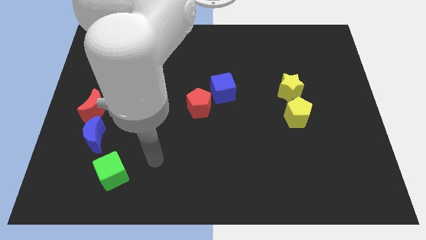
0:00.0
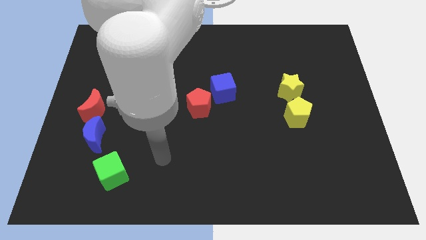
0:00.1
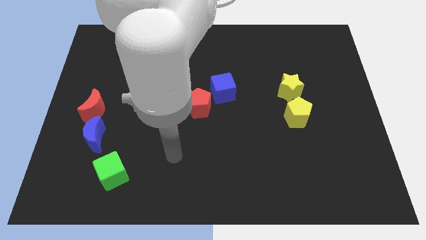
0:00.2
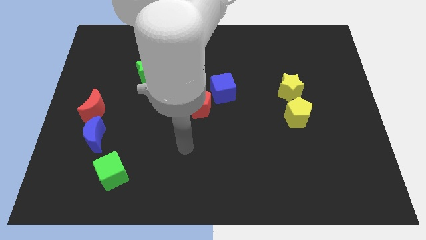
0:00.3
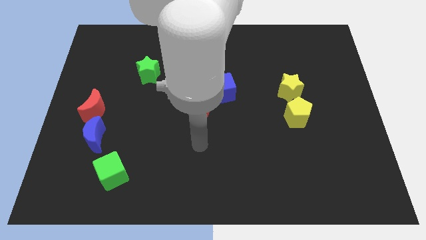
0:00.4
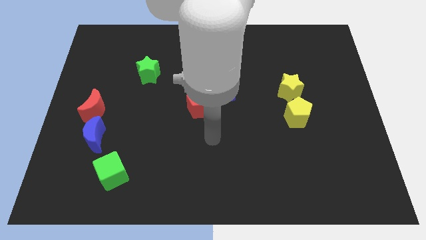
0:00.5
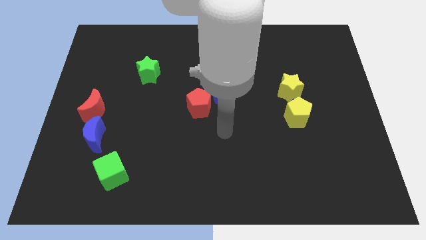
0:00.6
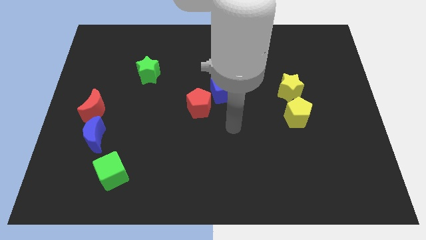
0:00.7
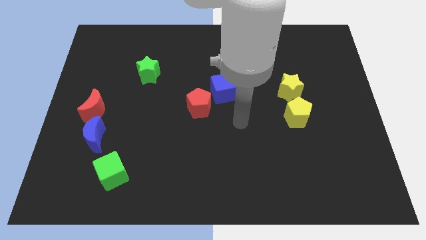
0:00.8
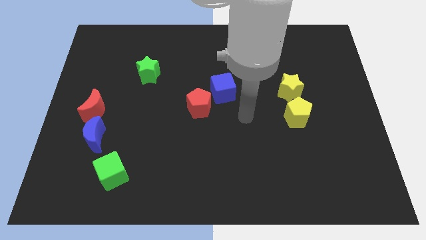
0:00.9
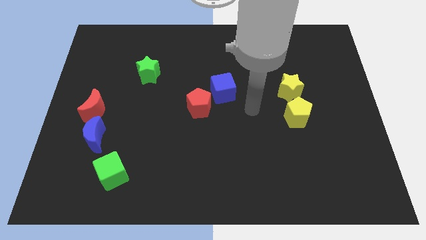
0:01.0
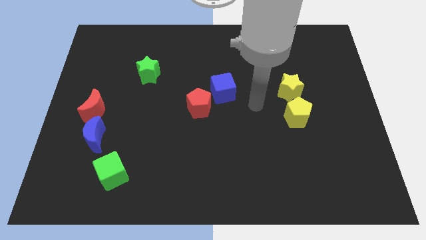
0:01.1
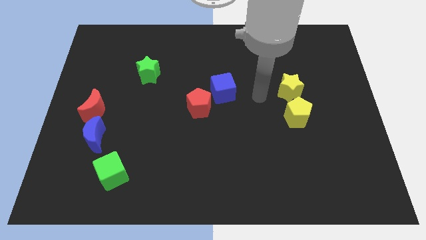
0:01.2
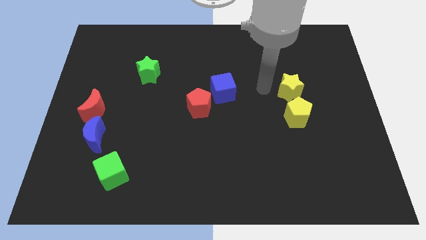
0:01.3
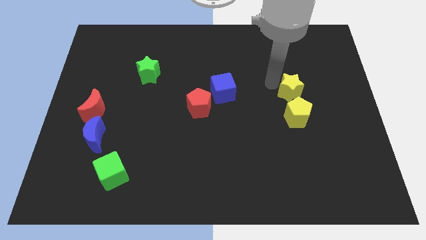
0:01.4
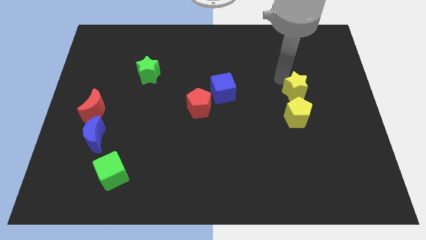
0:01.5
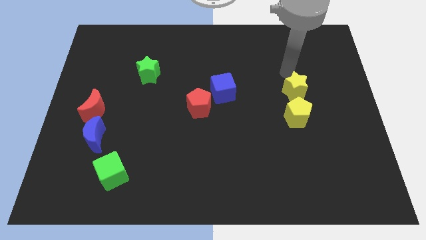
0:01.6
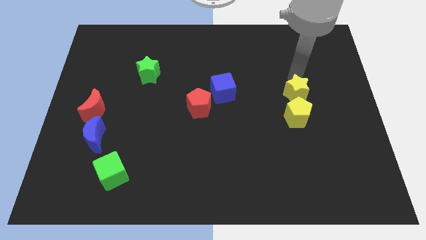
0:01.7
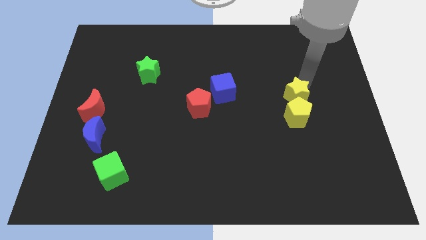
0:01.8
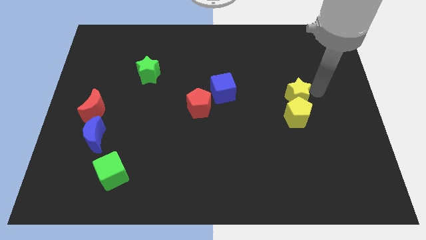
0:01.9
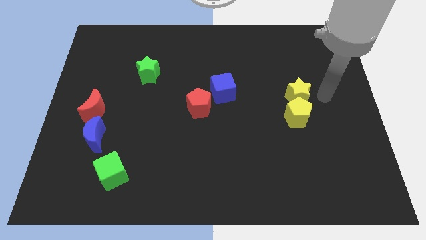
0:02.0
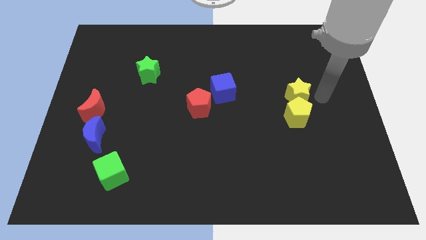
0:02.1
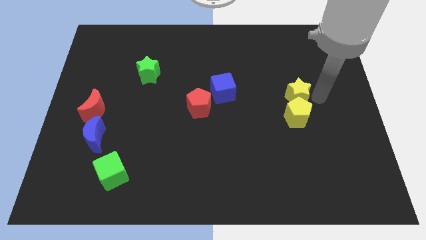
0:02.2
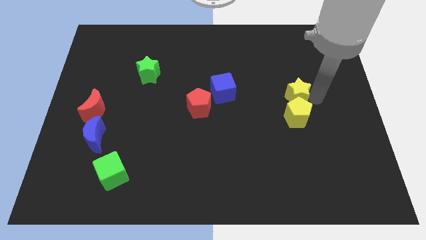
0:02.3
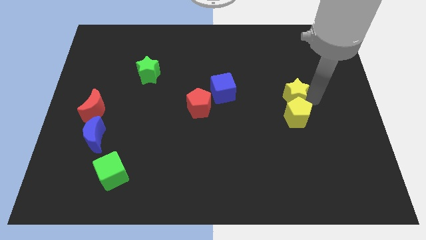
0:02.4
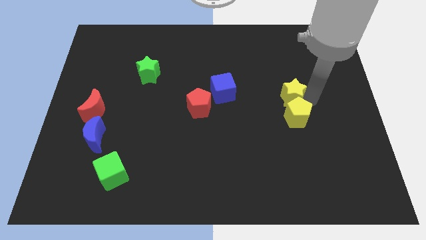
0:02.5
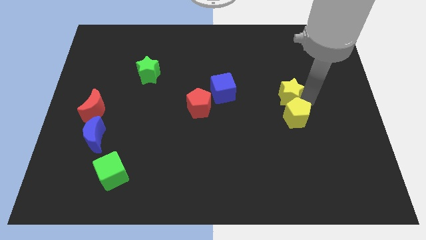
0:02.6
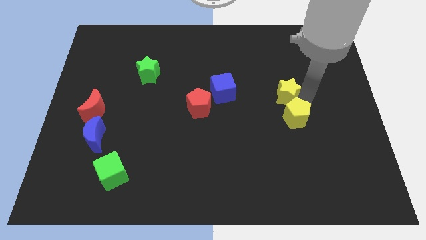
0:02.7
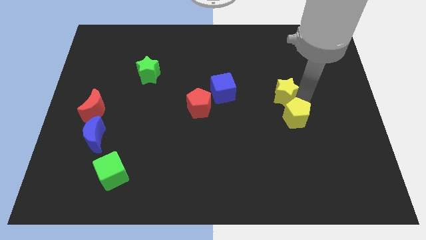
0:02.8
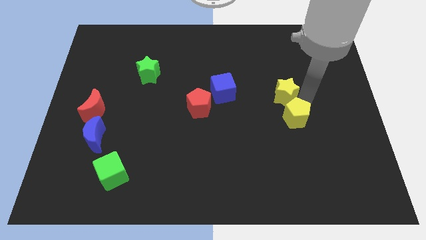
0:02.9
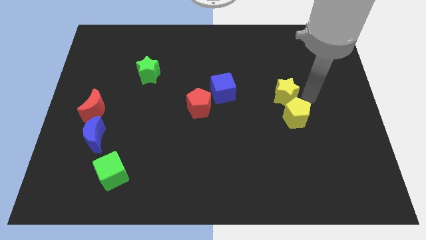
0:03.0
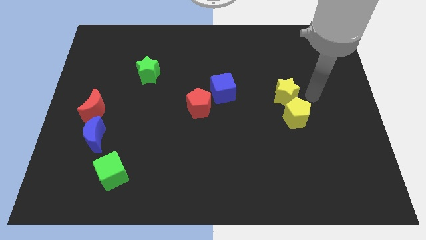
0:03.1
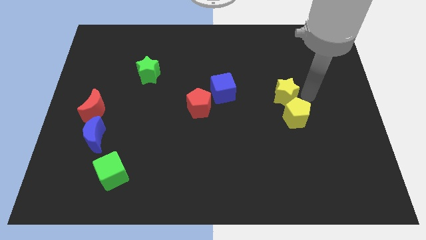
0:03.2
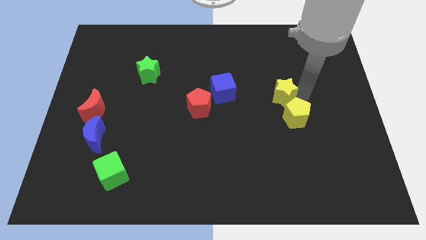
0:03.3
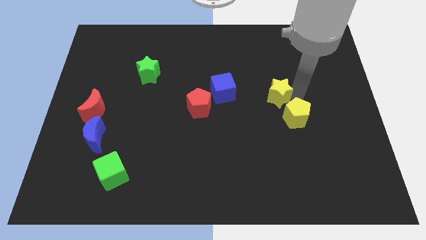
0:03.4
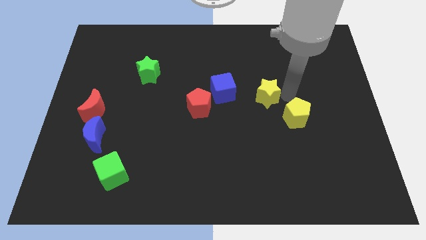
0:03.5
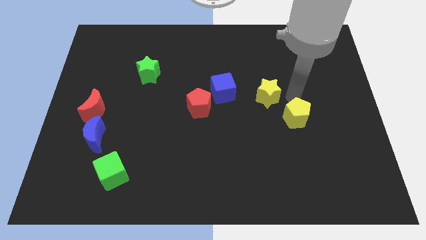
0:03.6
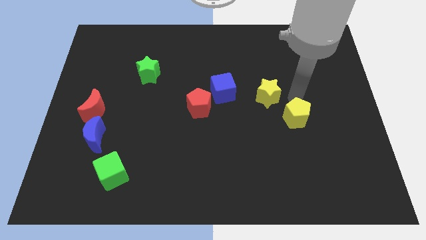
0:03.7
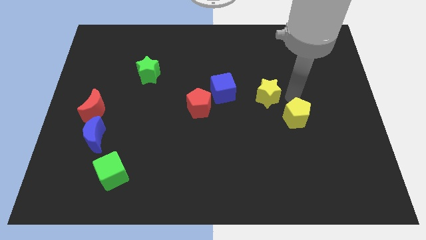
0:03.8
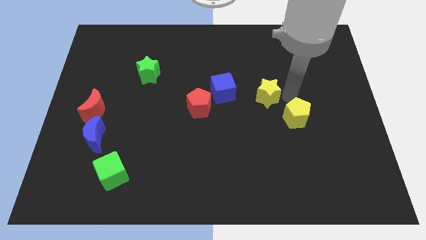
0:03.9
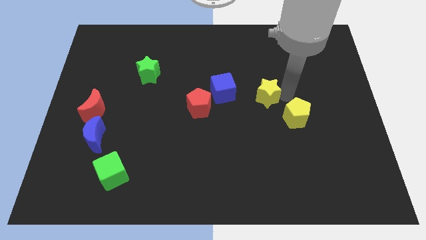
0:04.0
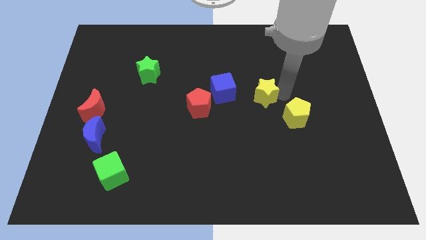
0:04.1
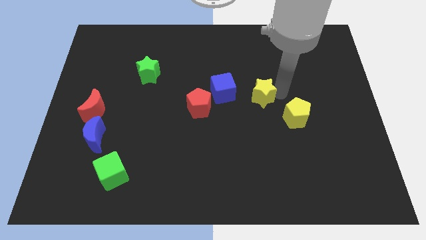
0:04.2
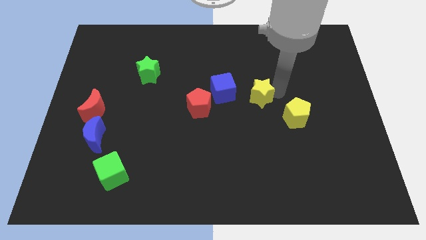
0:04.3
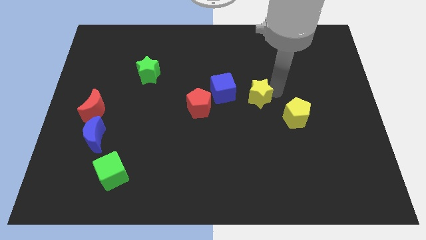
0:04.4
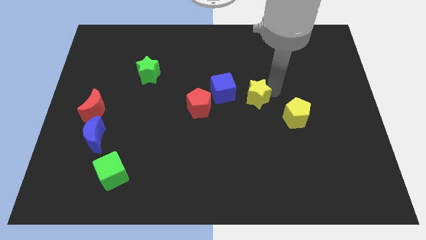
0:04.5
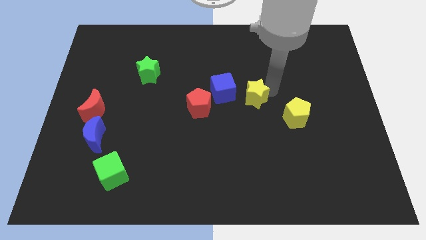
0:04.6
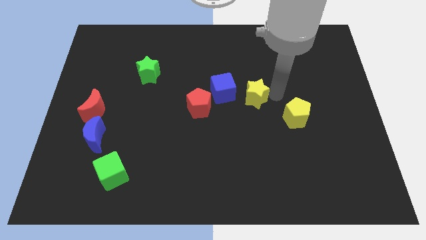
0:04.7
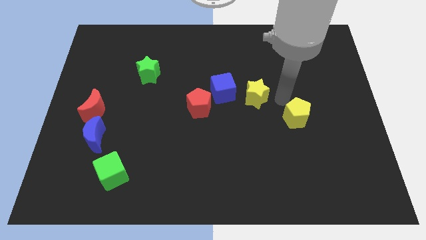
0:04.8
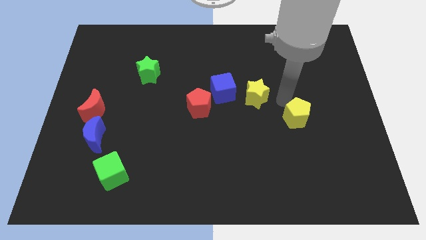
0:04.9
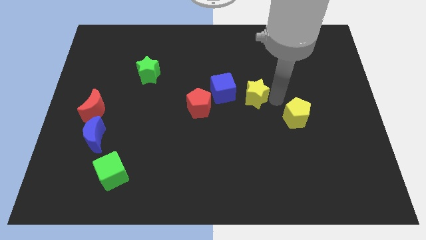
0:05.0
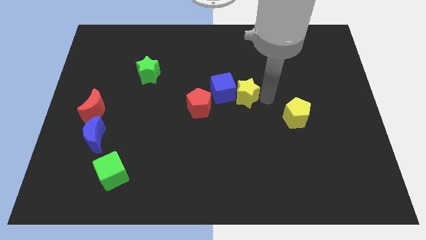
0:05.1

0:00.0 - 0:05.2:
push the yellow star close to the blue cube

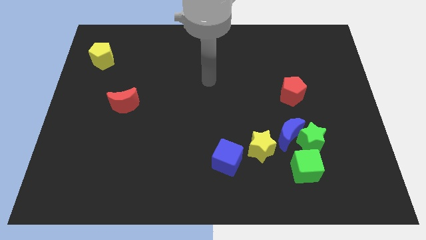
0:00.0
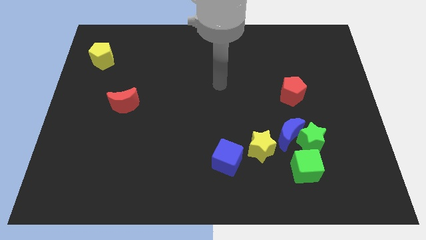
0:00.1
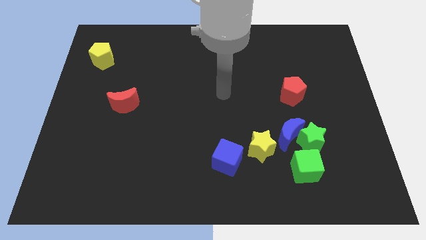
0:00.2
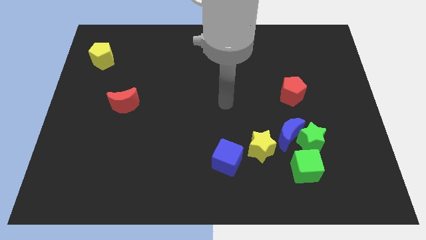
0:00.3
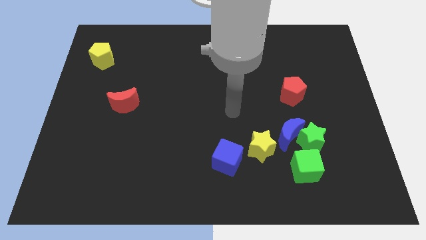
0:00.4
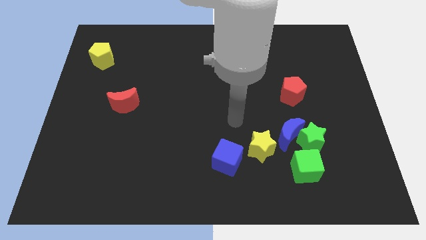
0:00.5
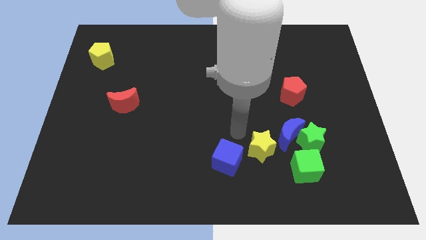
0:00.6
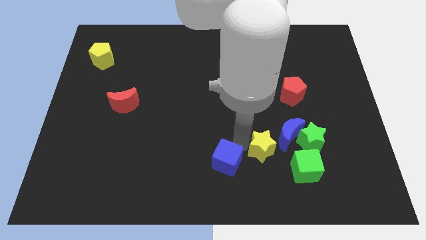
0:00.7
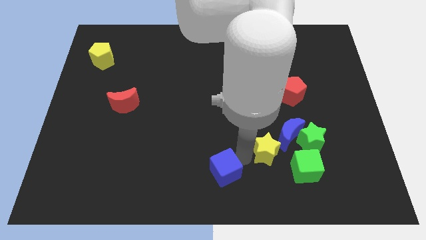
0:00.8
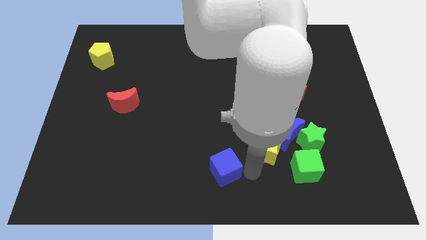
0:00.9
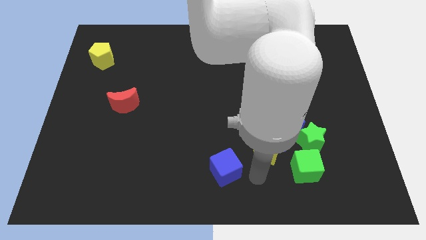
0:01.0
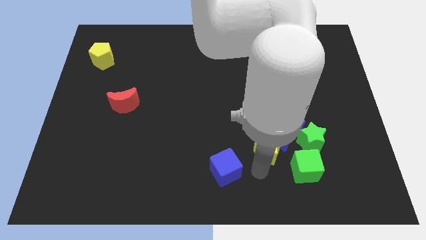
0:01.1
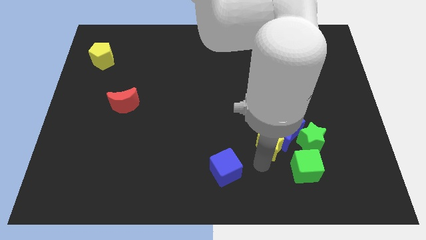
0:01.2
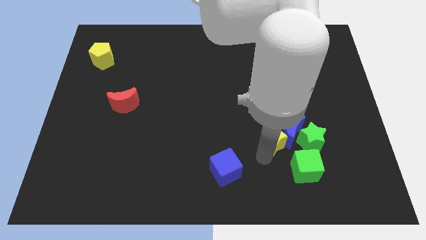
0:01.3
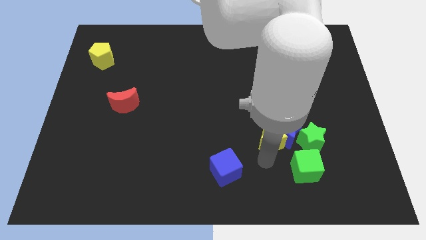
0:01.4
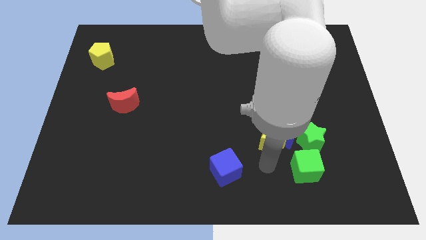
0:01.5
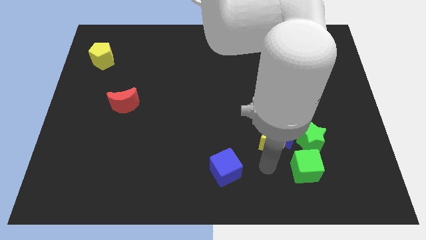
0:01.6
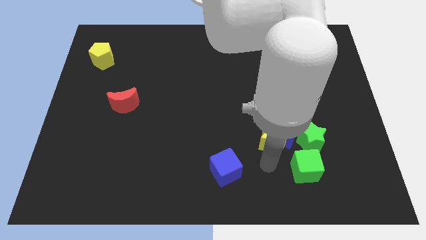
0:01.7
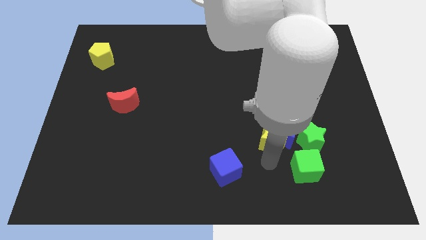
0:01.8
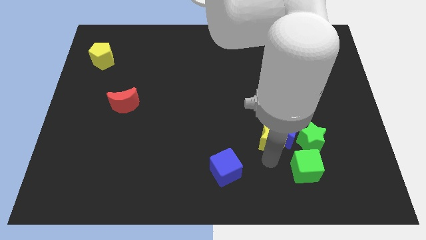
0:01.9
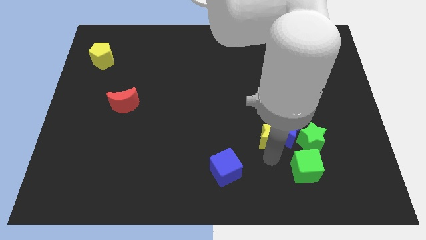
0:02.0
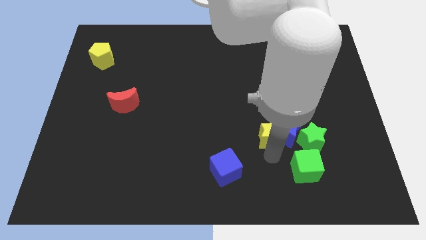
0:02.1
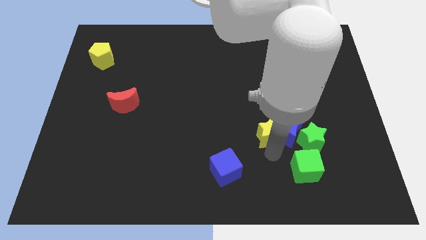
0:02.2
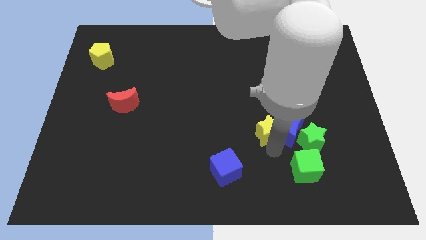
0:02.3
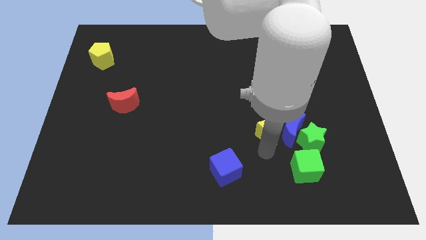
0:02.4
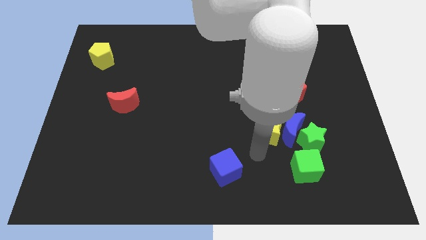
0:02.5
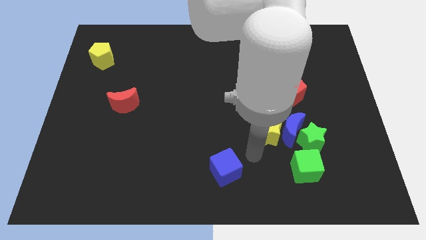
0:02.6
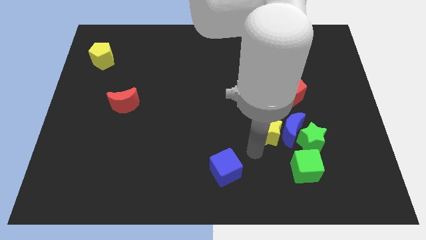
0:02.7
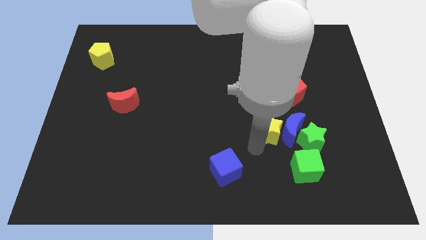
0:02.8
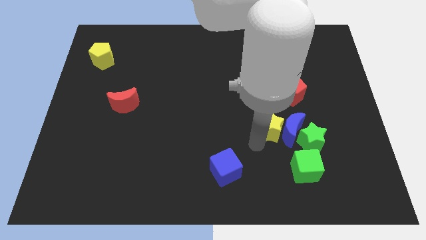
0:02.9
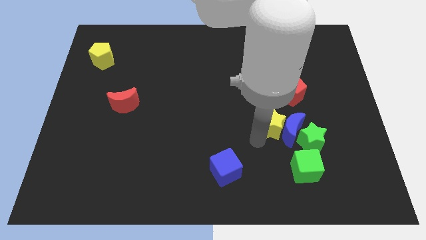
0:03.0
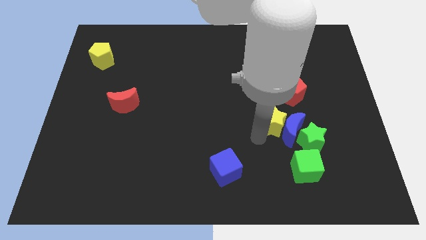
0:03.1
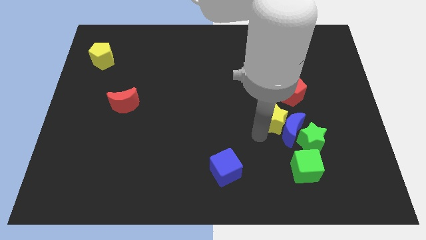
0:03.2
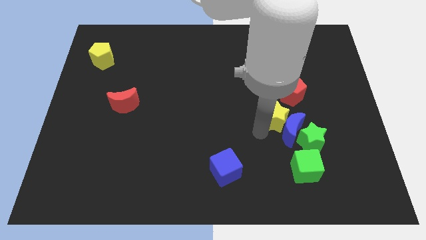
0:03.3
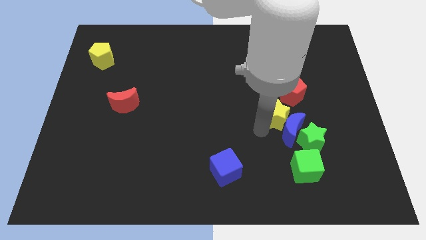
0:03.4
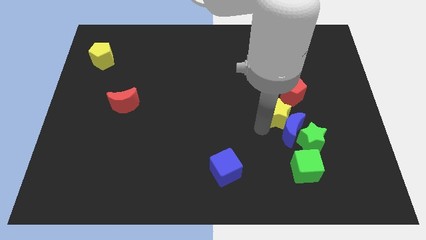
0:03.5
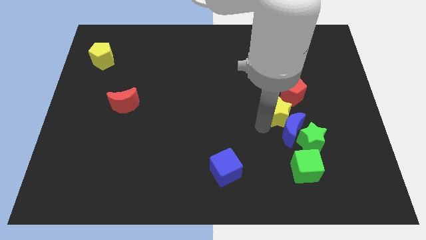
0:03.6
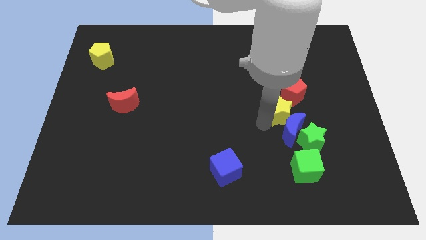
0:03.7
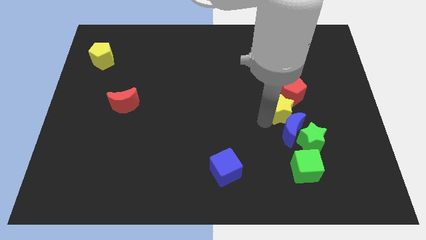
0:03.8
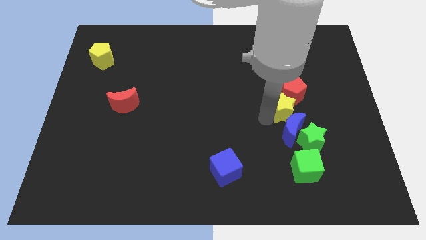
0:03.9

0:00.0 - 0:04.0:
push the yellow star next to the red pentagon
